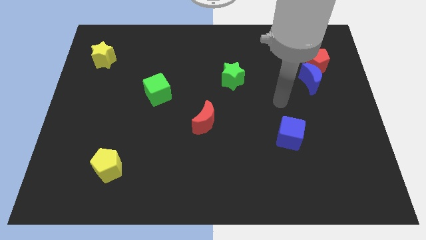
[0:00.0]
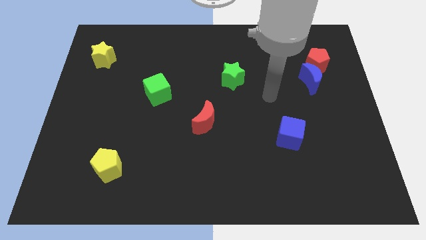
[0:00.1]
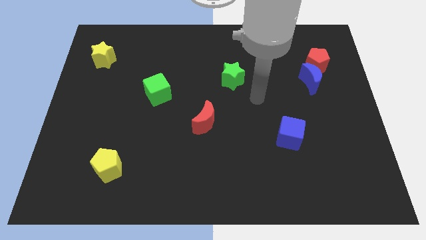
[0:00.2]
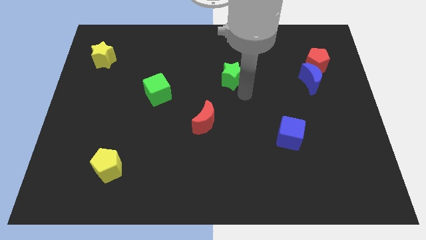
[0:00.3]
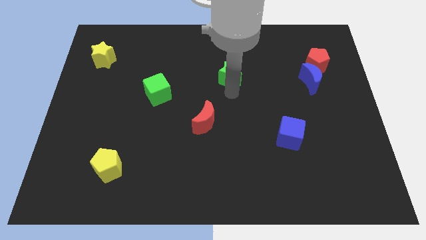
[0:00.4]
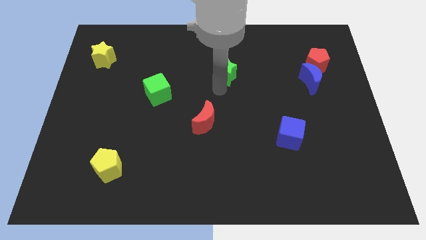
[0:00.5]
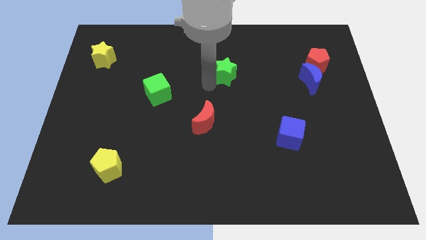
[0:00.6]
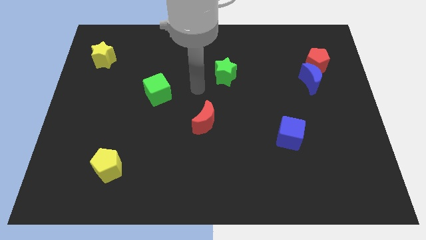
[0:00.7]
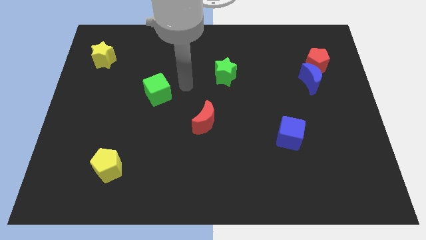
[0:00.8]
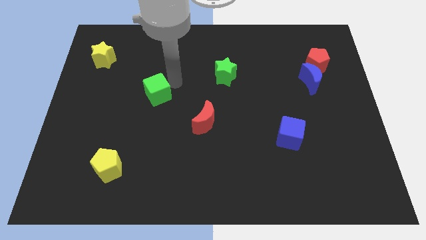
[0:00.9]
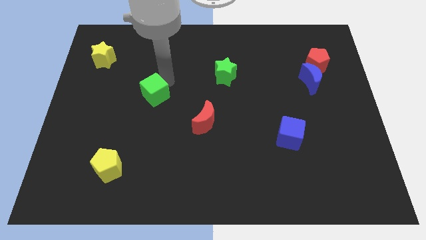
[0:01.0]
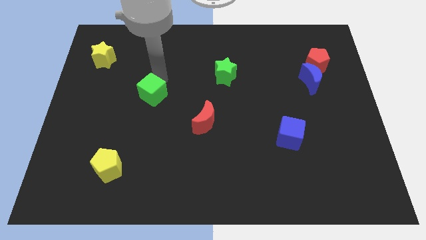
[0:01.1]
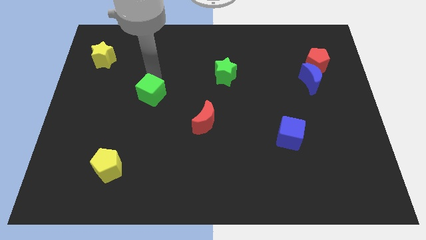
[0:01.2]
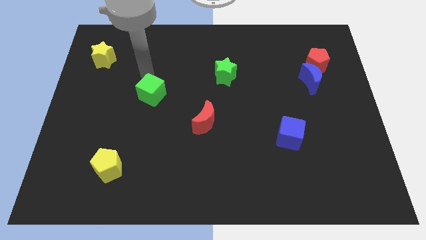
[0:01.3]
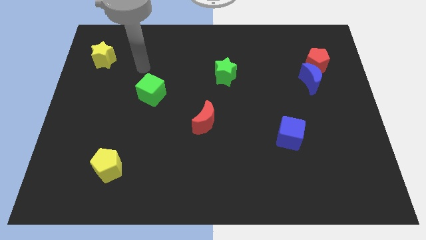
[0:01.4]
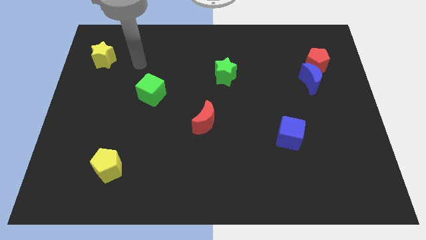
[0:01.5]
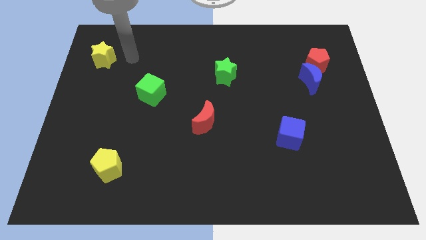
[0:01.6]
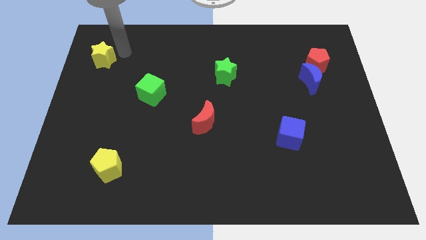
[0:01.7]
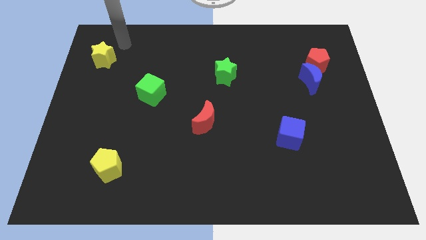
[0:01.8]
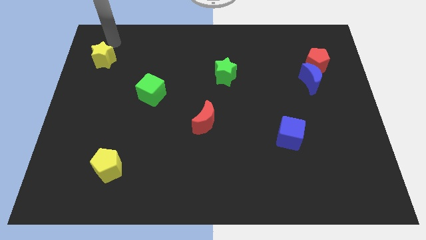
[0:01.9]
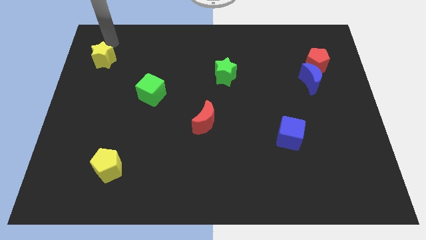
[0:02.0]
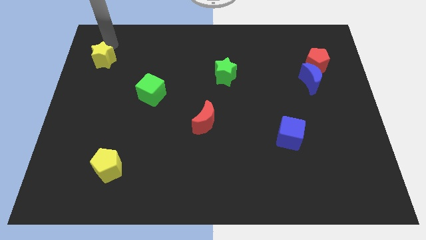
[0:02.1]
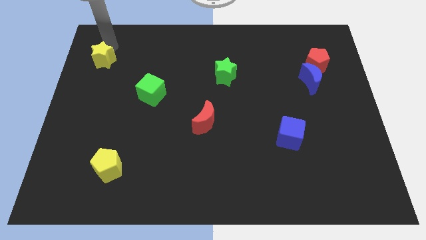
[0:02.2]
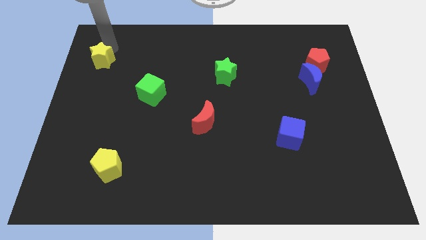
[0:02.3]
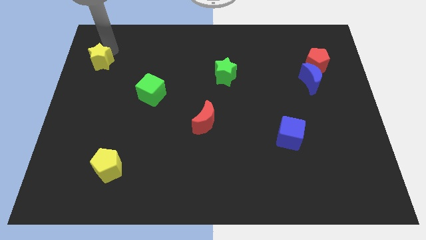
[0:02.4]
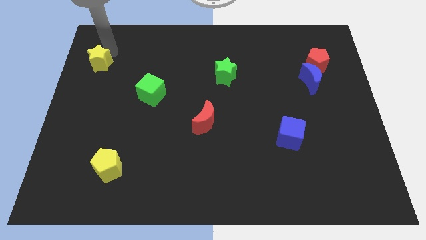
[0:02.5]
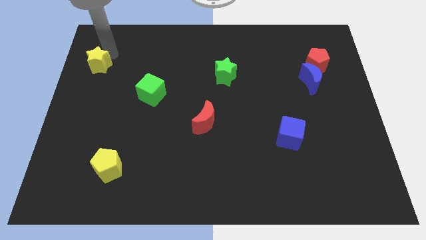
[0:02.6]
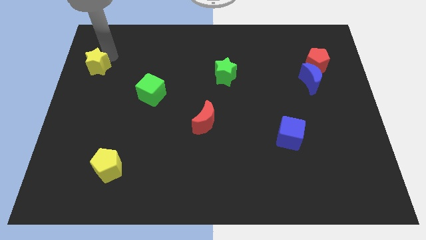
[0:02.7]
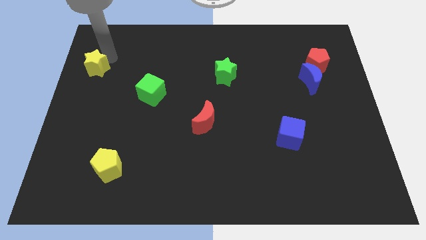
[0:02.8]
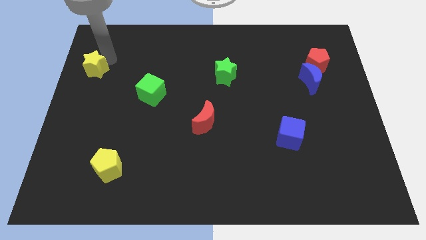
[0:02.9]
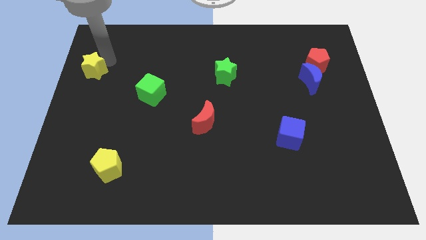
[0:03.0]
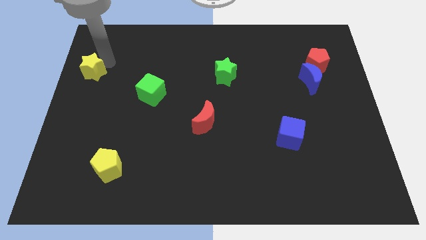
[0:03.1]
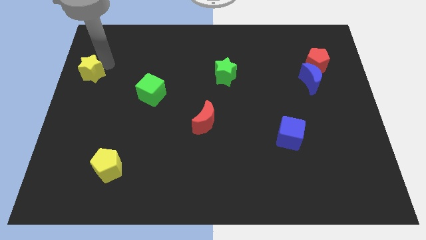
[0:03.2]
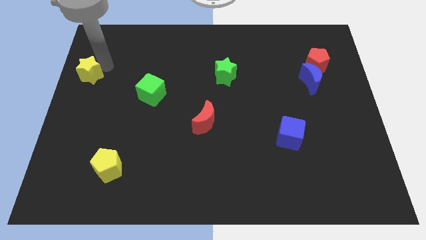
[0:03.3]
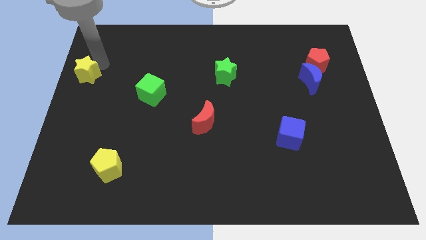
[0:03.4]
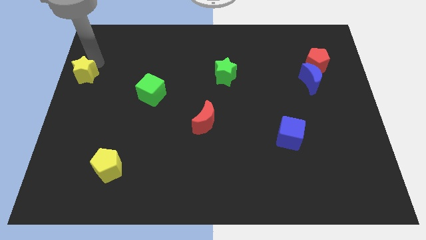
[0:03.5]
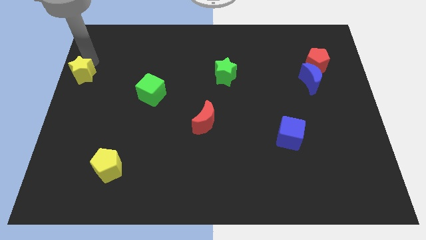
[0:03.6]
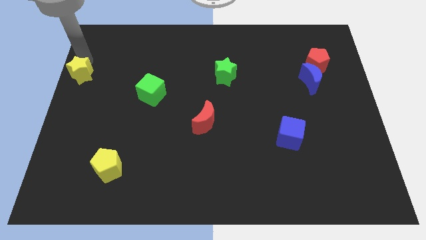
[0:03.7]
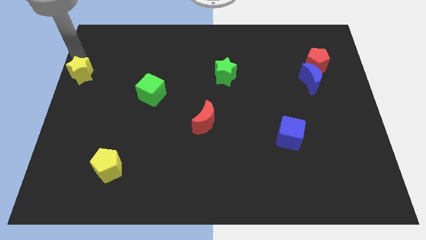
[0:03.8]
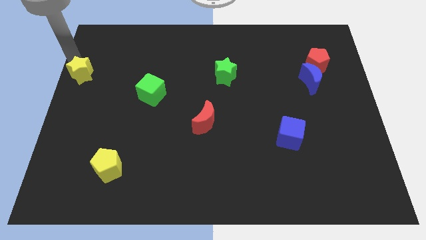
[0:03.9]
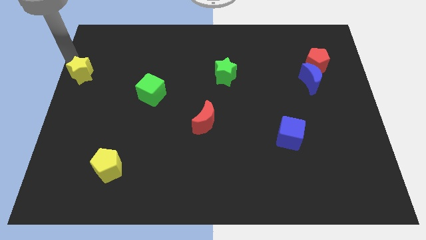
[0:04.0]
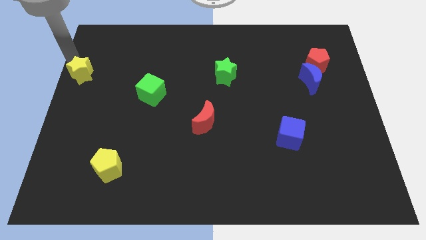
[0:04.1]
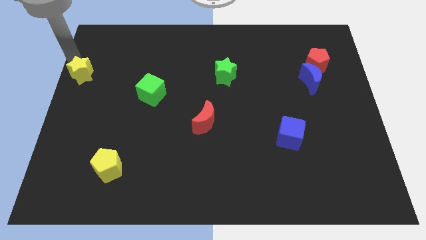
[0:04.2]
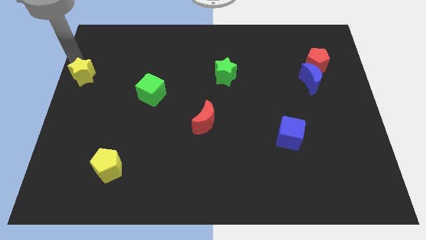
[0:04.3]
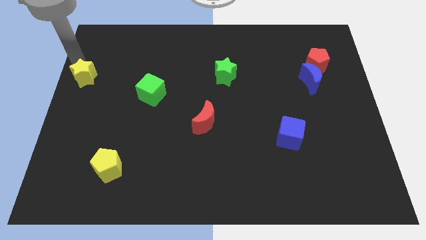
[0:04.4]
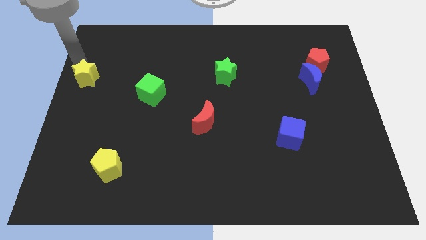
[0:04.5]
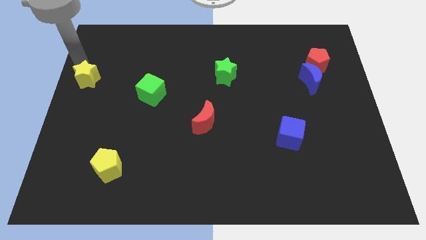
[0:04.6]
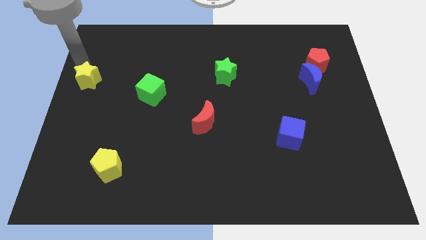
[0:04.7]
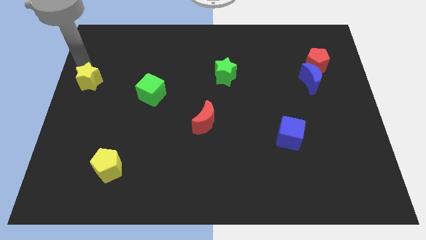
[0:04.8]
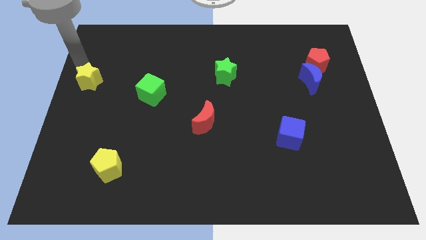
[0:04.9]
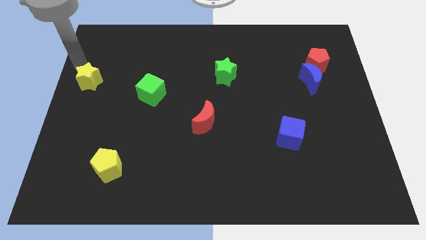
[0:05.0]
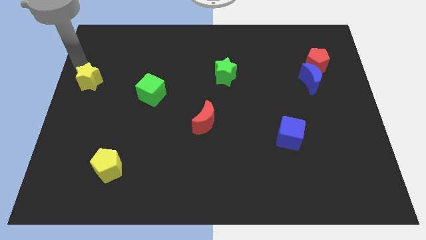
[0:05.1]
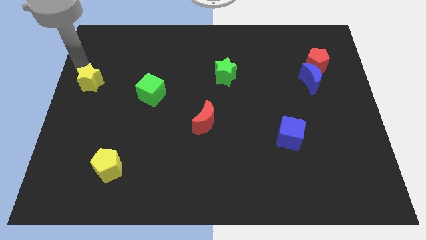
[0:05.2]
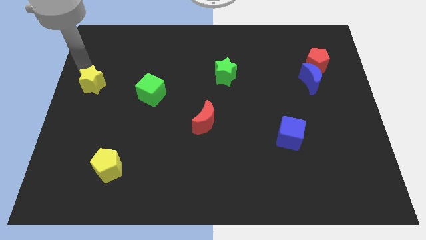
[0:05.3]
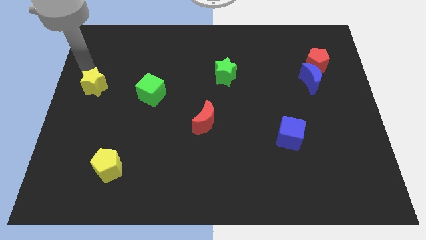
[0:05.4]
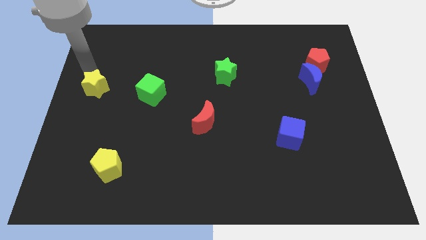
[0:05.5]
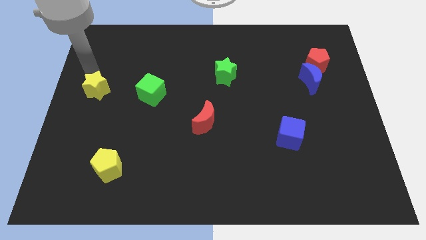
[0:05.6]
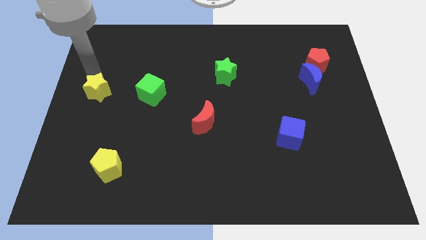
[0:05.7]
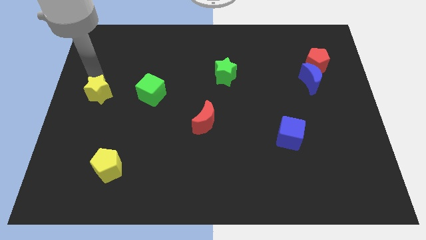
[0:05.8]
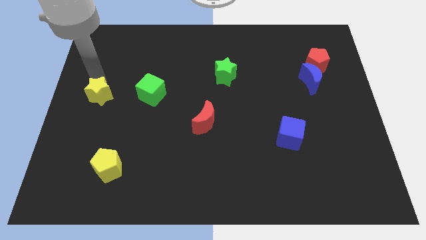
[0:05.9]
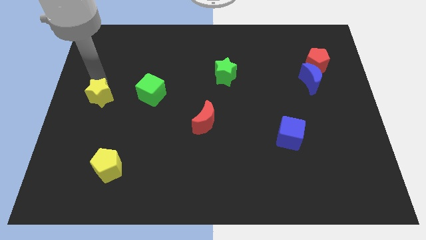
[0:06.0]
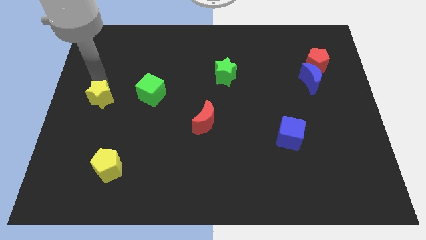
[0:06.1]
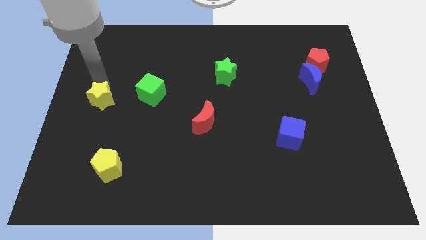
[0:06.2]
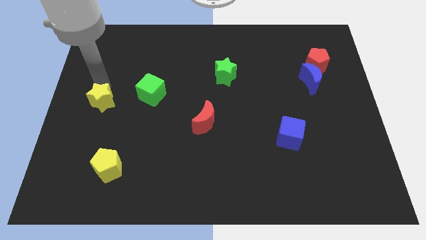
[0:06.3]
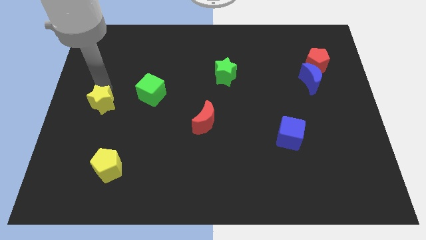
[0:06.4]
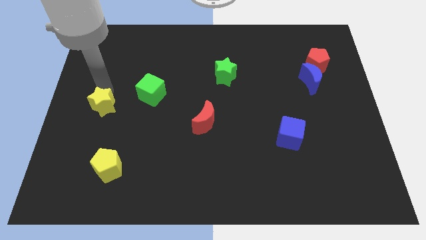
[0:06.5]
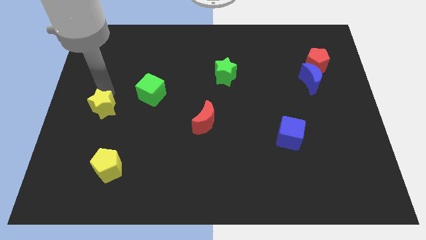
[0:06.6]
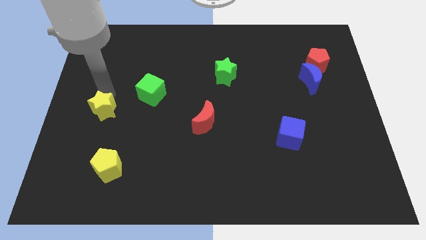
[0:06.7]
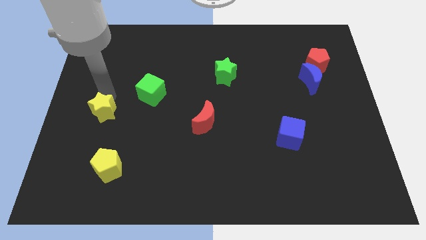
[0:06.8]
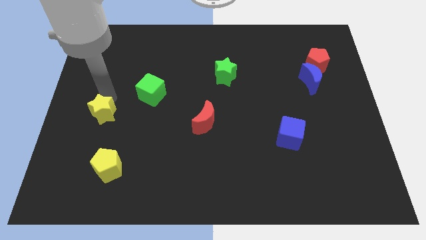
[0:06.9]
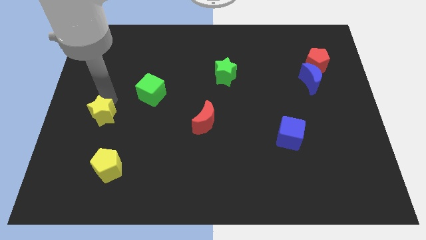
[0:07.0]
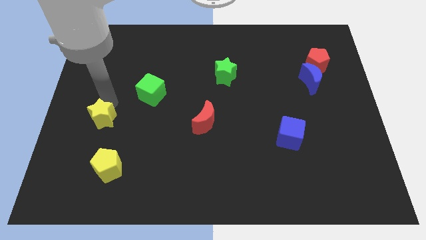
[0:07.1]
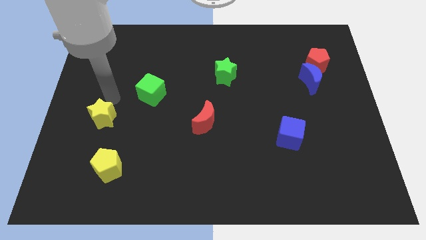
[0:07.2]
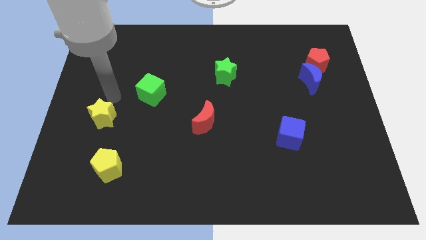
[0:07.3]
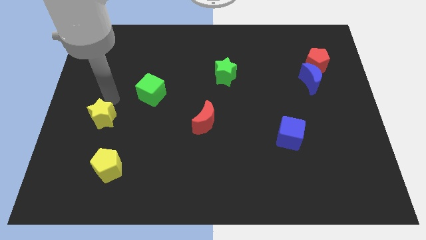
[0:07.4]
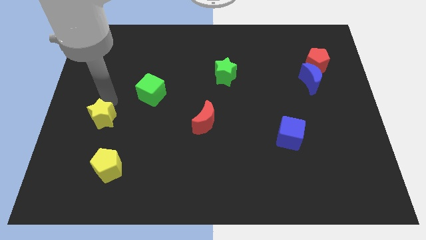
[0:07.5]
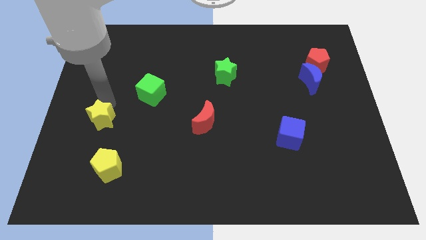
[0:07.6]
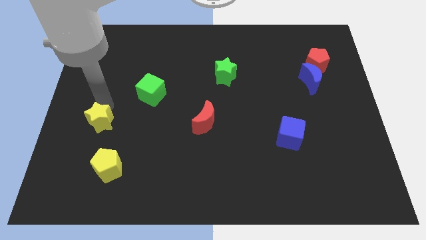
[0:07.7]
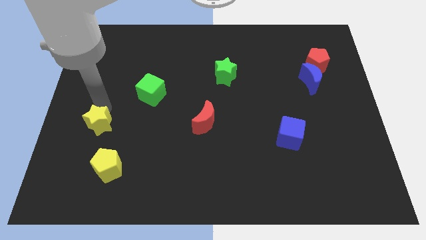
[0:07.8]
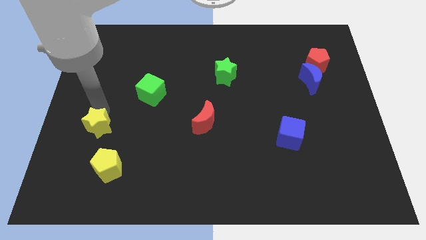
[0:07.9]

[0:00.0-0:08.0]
slide the yellow star diagonally up and to the left of the yellow pentagon
